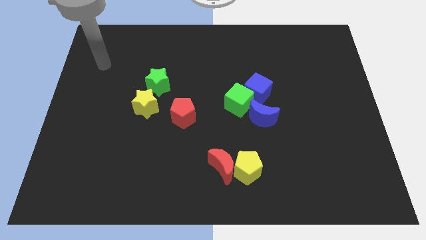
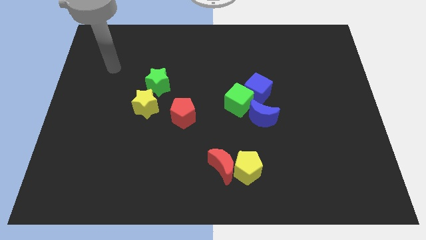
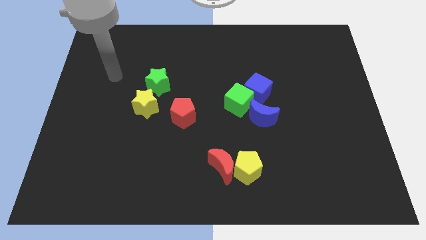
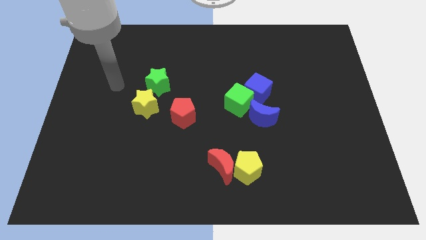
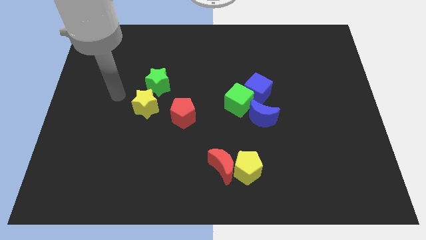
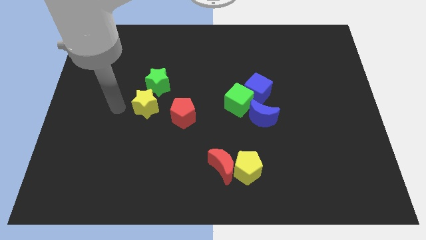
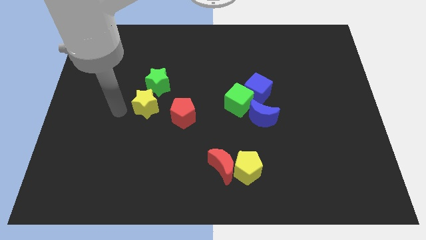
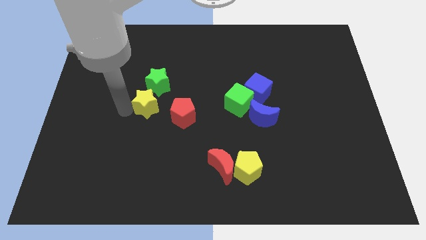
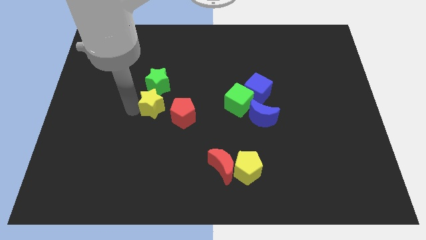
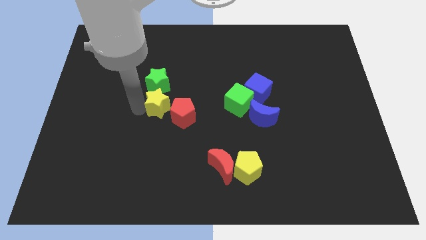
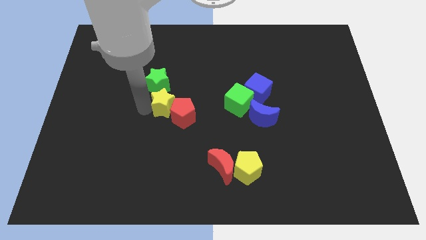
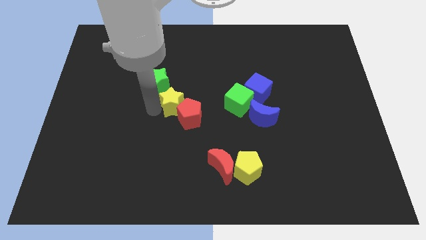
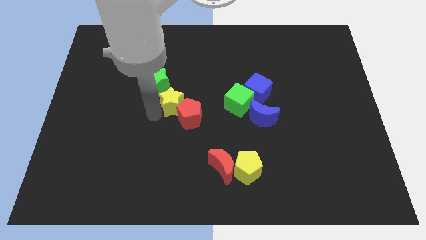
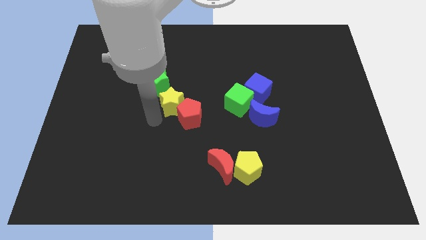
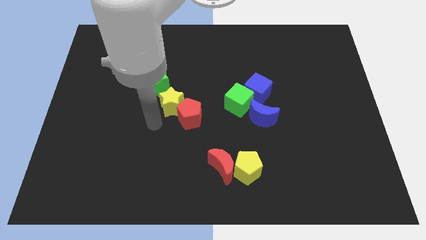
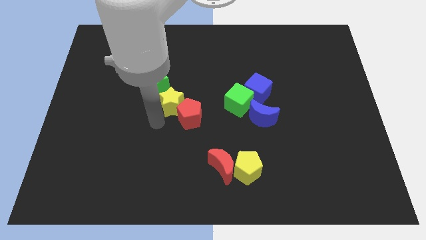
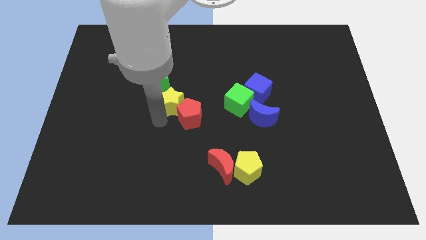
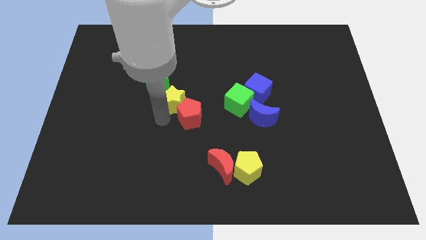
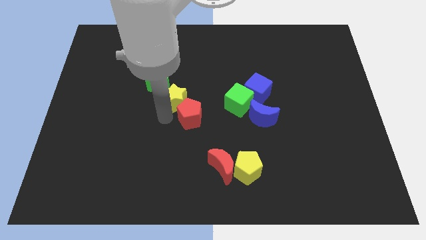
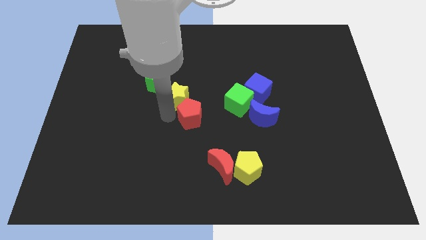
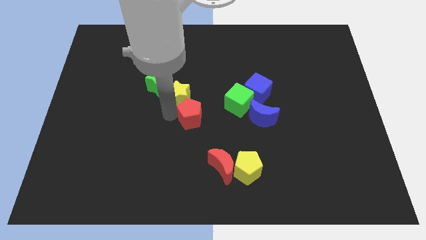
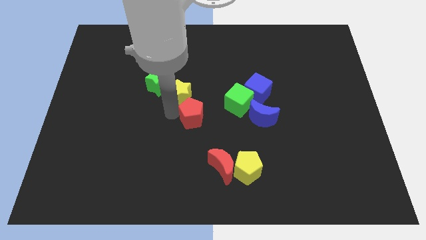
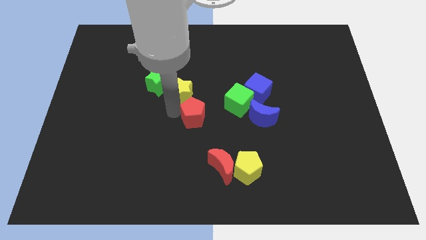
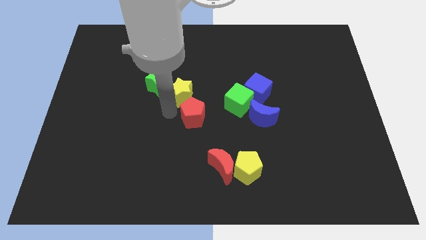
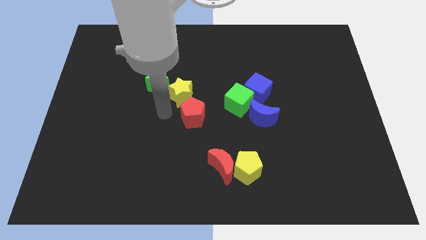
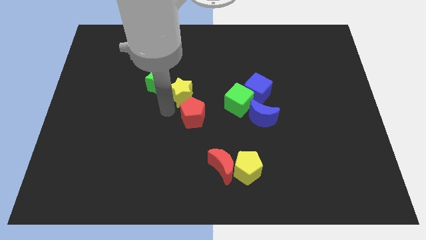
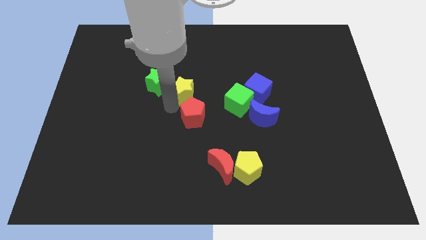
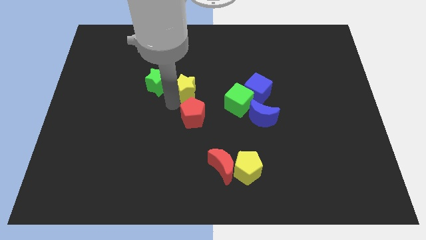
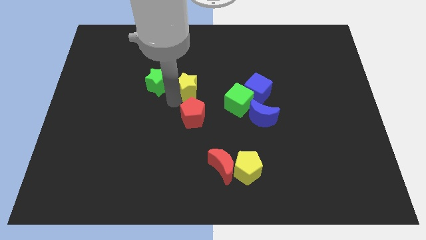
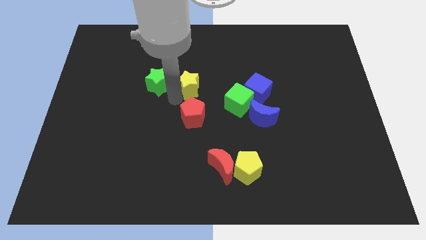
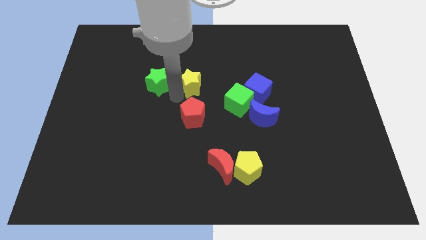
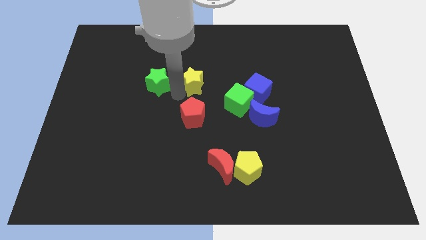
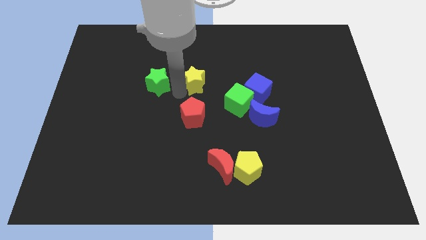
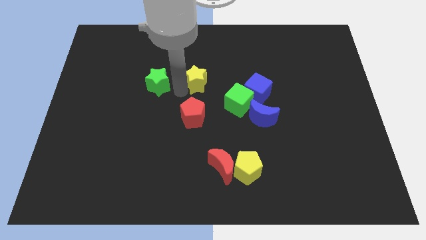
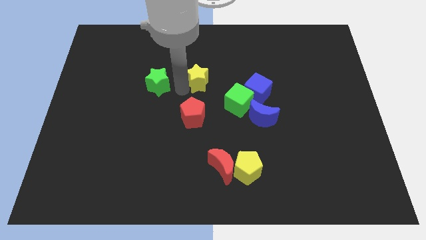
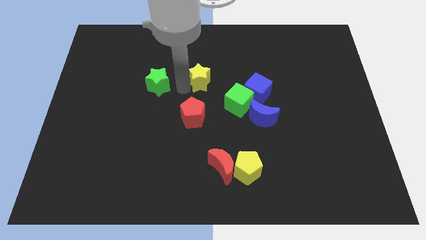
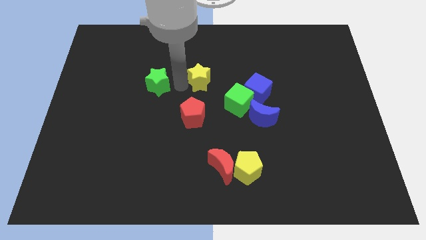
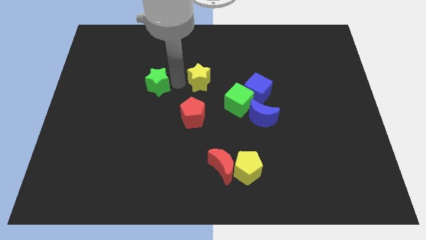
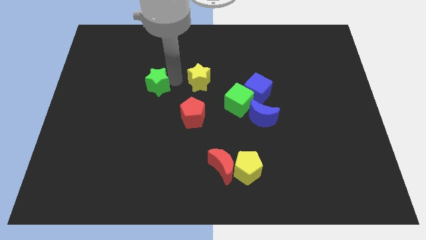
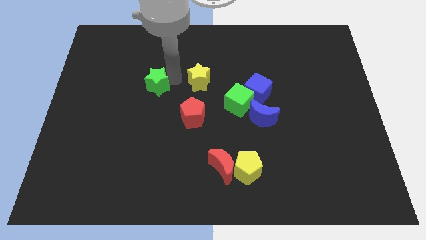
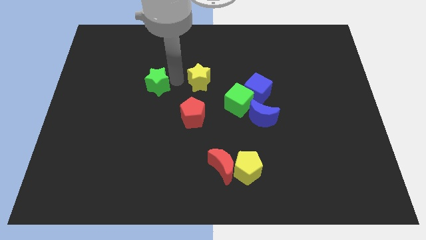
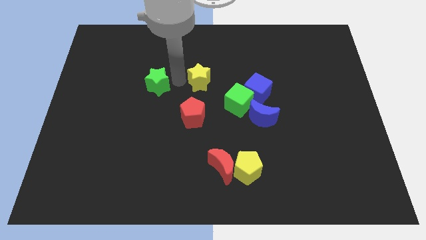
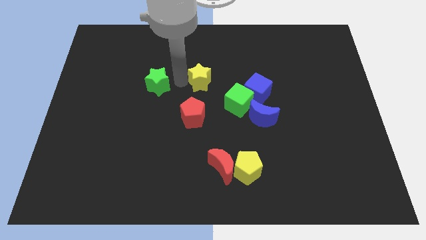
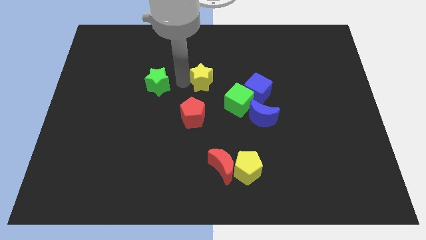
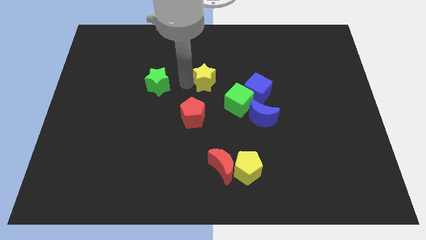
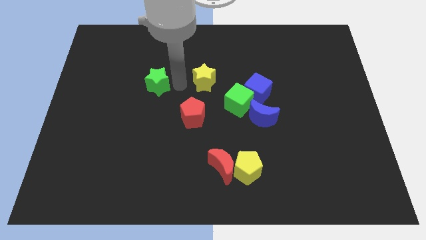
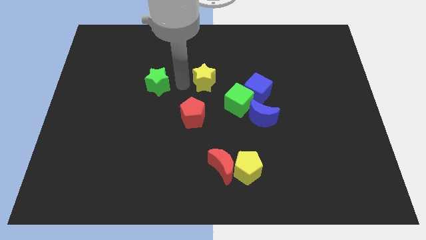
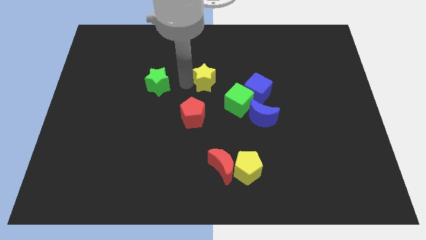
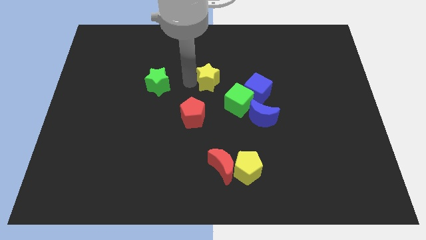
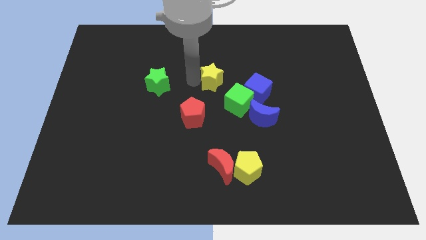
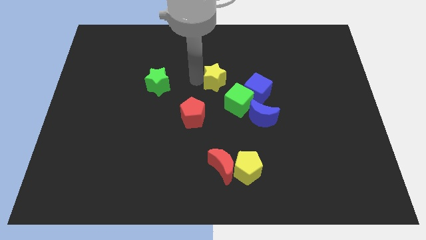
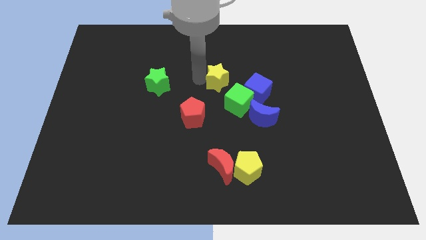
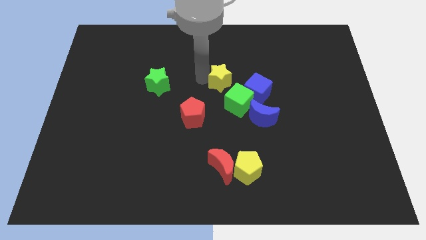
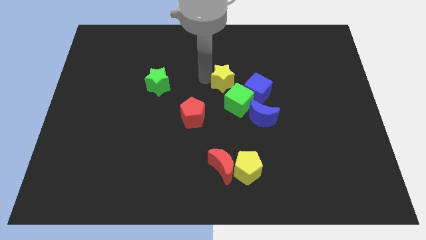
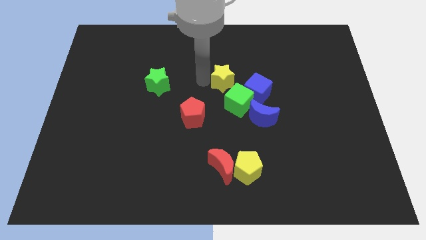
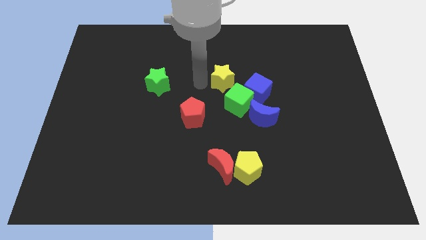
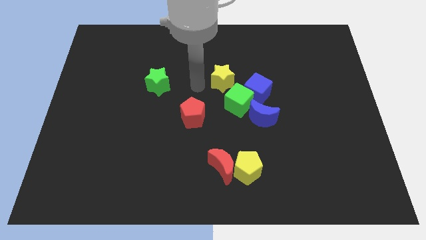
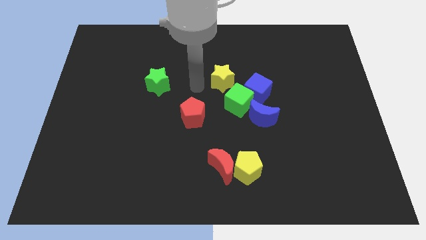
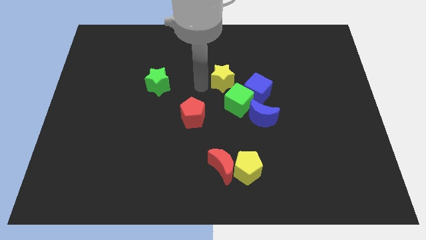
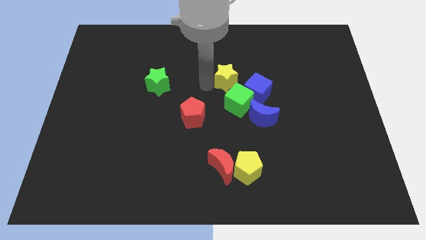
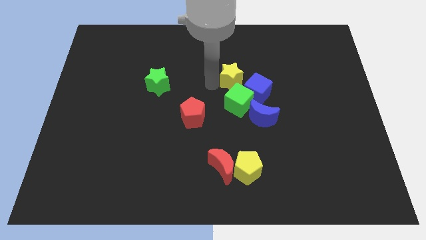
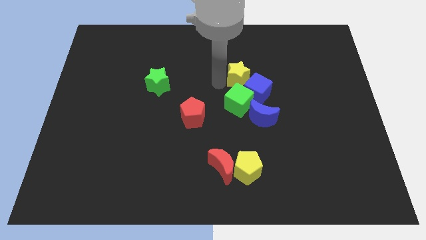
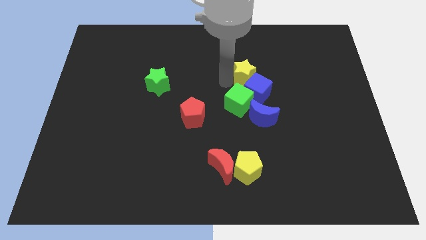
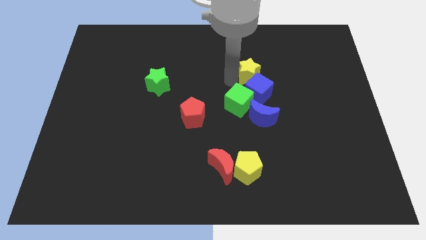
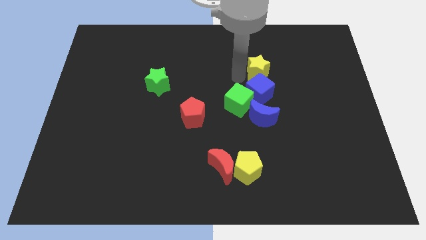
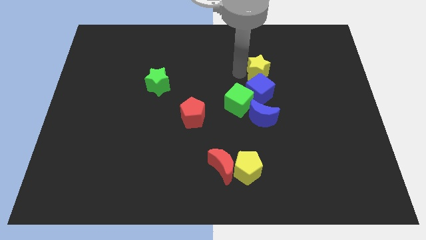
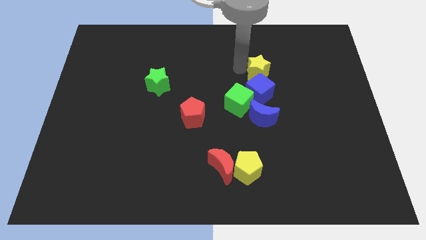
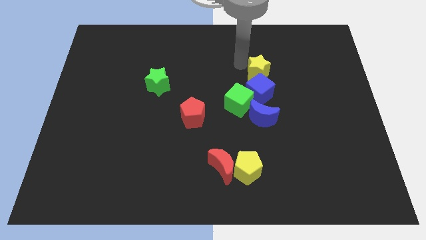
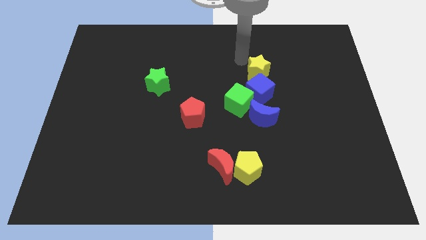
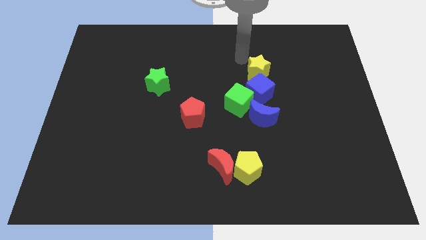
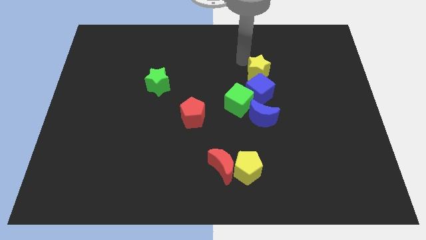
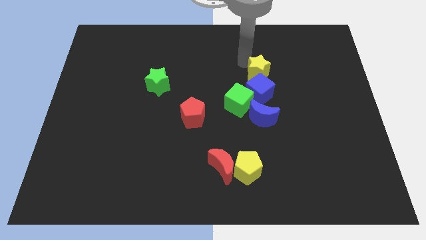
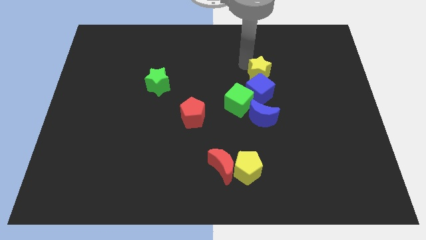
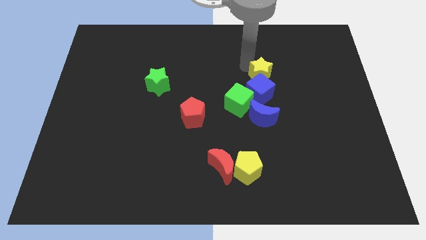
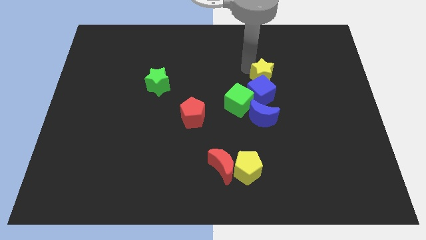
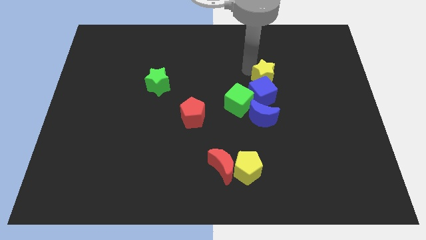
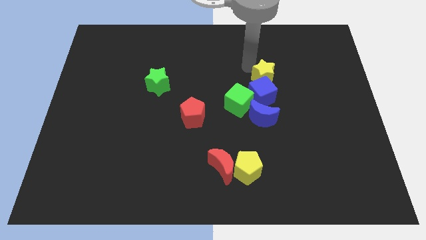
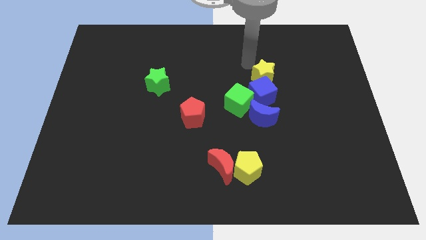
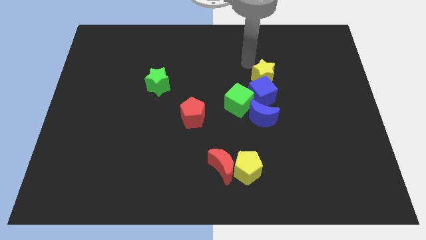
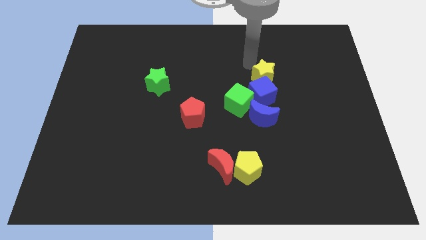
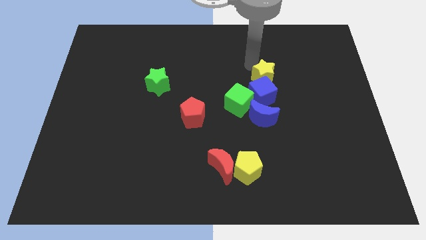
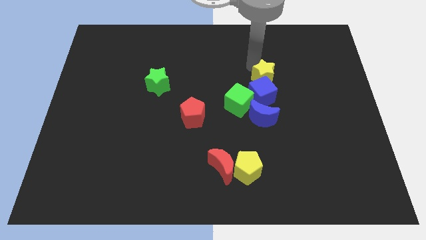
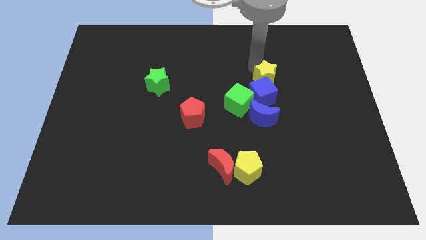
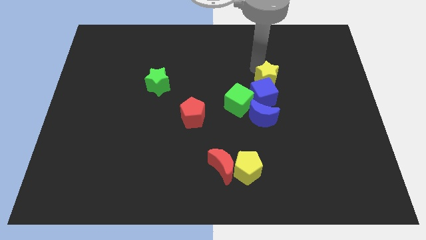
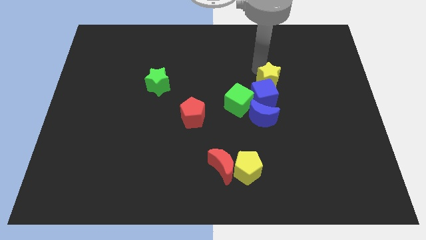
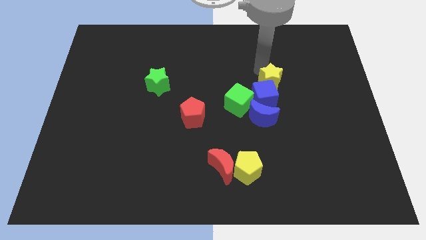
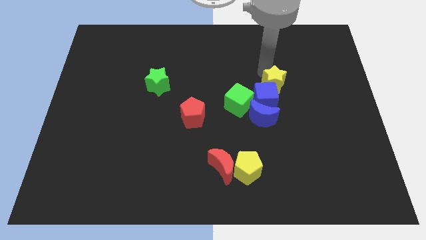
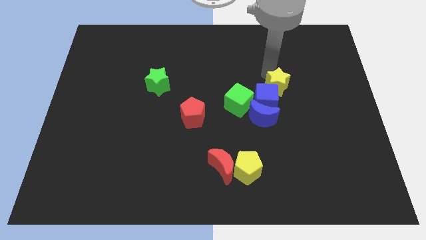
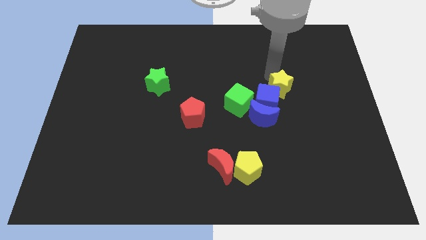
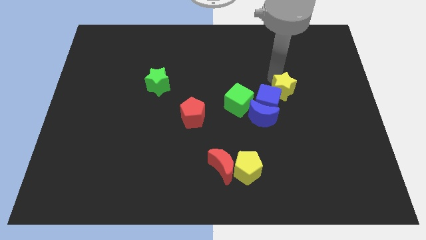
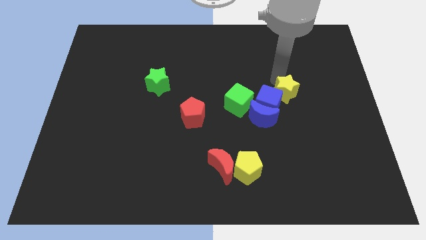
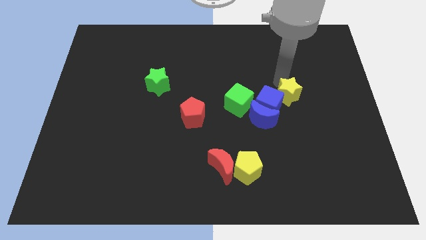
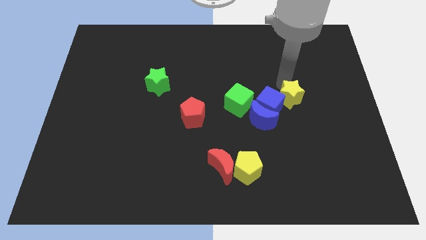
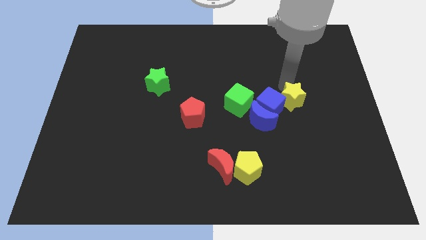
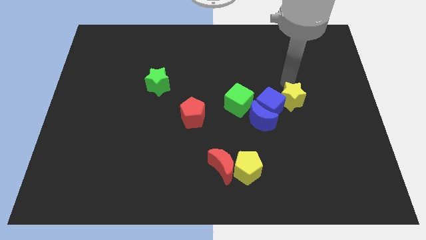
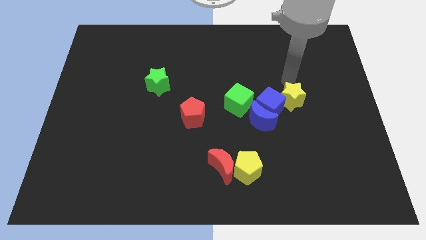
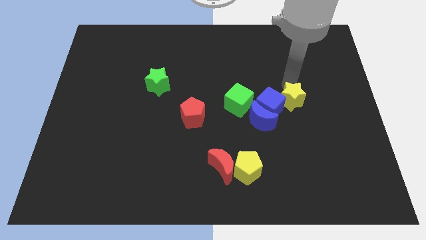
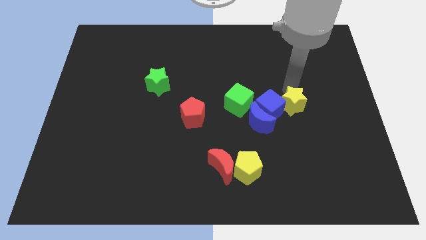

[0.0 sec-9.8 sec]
slide the yellow star to the bottom right side of the blue cube
